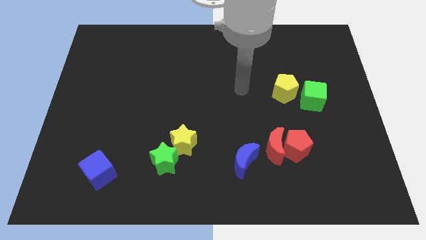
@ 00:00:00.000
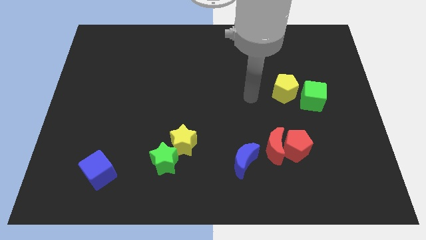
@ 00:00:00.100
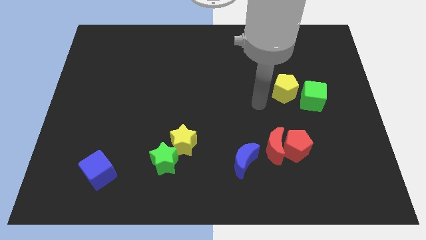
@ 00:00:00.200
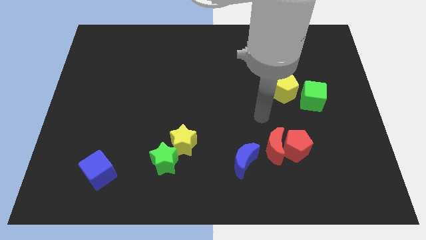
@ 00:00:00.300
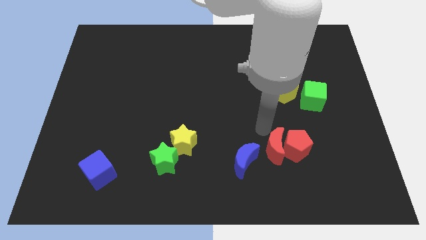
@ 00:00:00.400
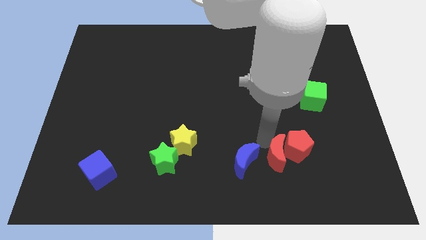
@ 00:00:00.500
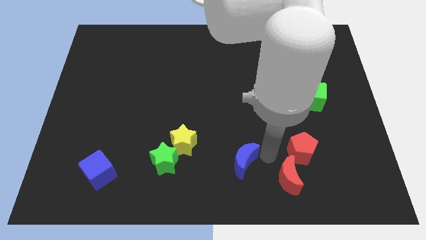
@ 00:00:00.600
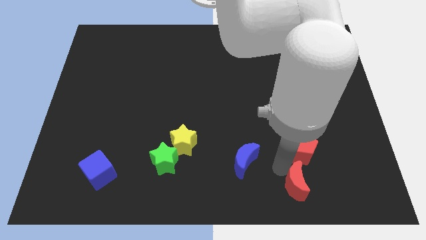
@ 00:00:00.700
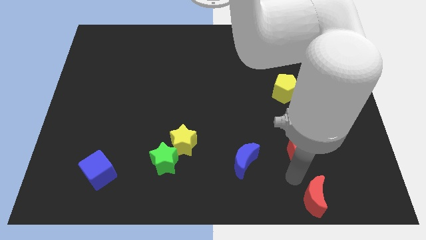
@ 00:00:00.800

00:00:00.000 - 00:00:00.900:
pull the red pentagon apart from the red moon

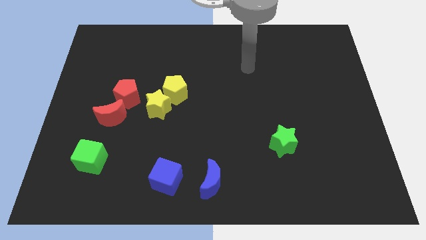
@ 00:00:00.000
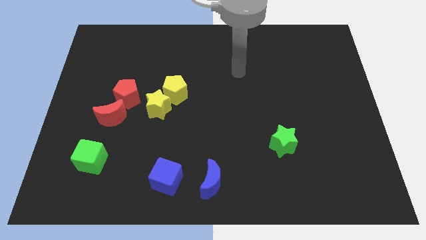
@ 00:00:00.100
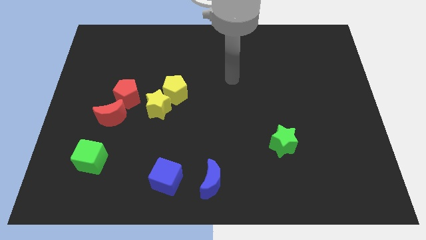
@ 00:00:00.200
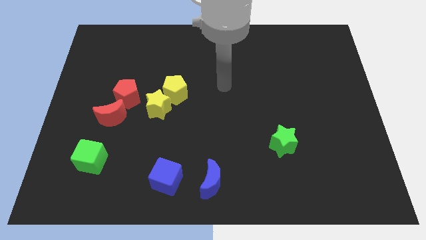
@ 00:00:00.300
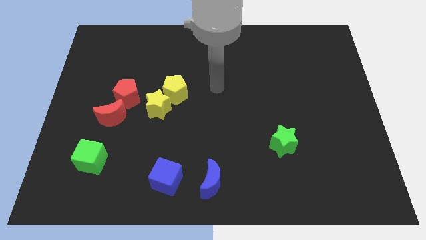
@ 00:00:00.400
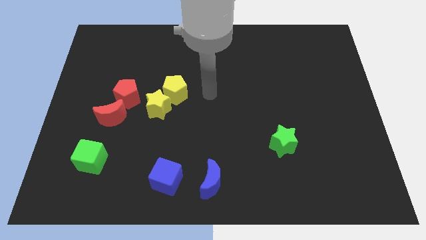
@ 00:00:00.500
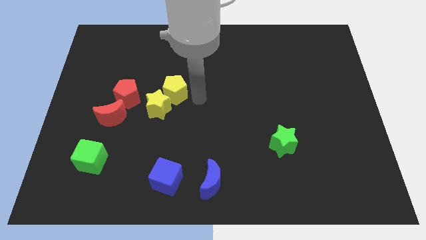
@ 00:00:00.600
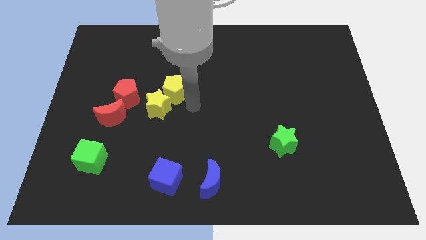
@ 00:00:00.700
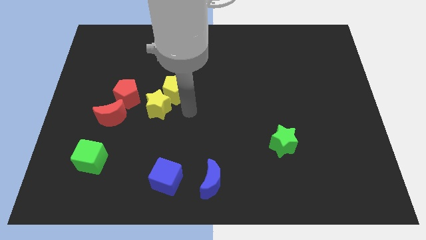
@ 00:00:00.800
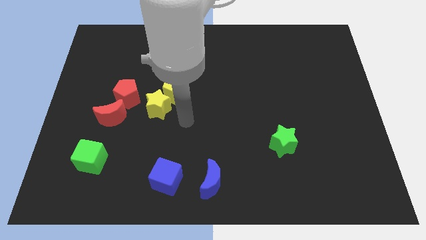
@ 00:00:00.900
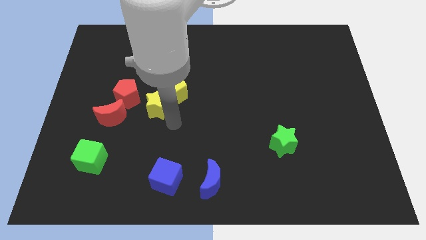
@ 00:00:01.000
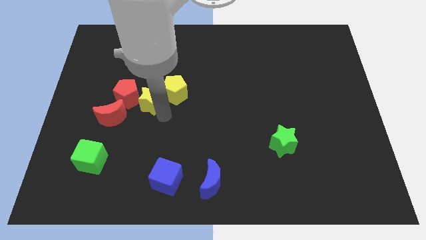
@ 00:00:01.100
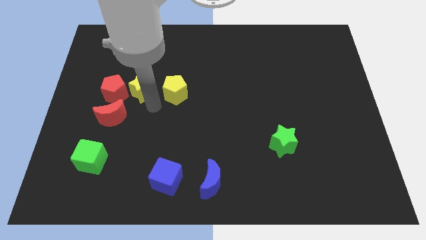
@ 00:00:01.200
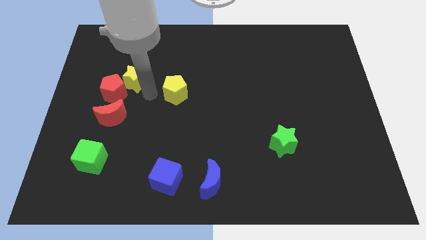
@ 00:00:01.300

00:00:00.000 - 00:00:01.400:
separate the yellow pentagon from the yellow star

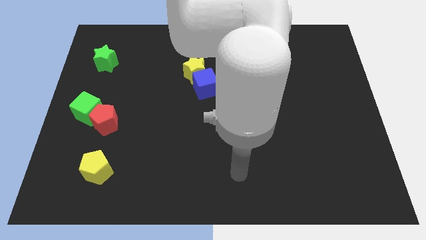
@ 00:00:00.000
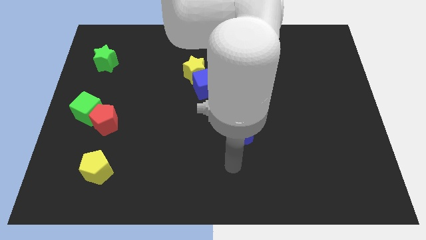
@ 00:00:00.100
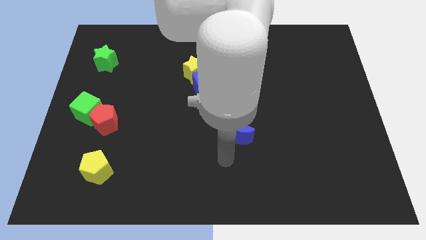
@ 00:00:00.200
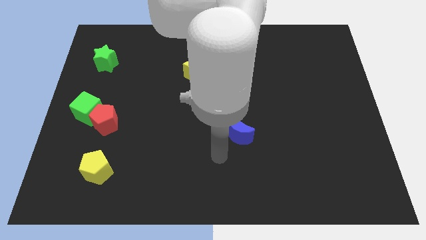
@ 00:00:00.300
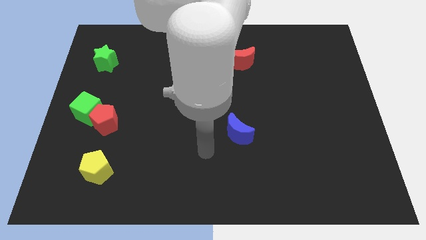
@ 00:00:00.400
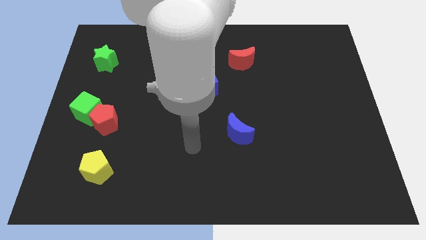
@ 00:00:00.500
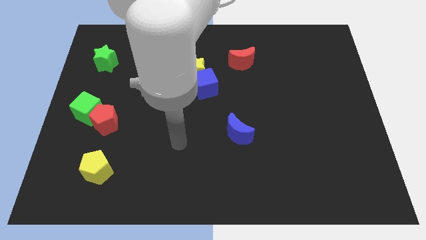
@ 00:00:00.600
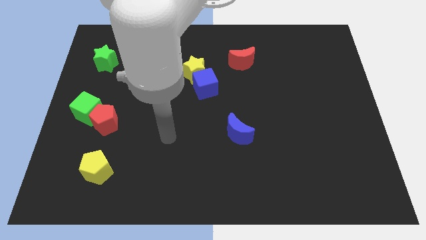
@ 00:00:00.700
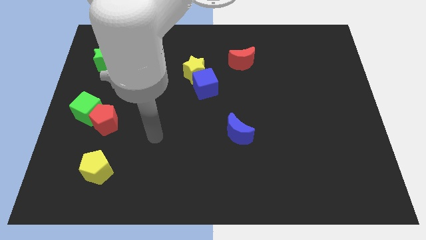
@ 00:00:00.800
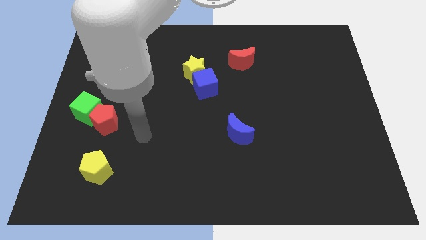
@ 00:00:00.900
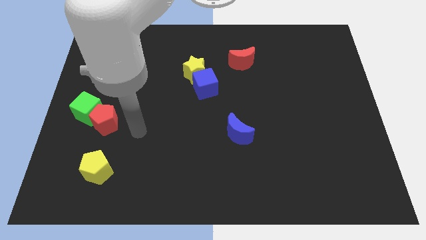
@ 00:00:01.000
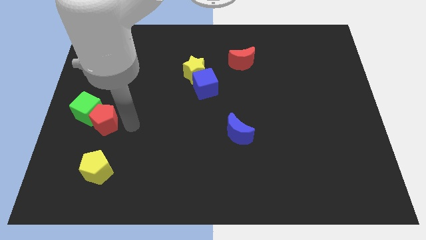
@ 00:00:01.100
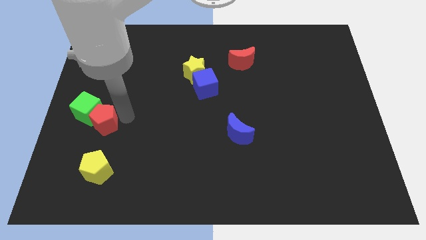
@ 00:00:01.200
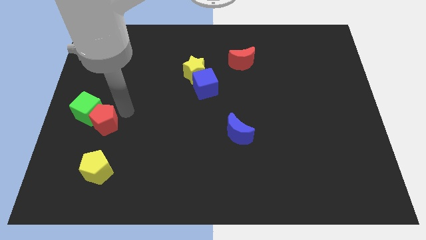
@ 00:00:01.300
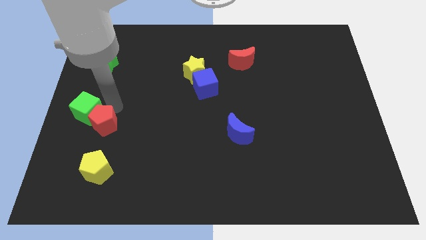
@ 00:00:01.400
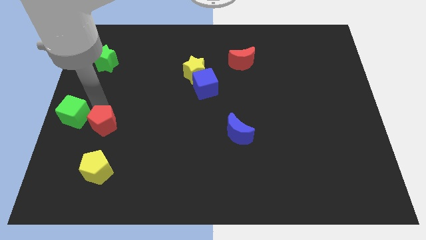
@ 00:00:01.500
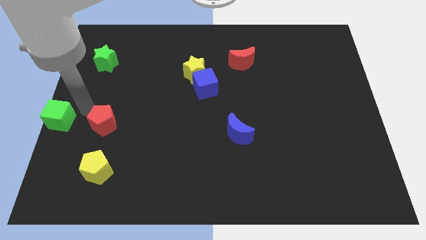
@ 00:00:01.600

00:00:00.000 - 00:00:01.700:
pull the red pentagon apart from the green cube

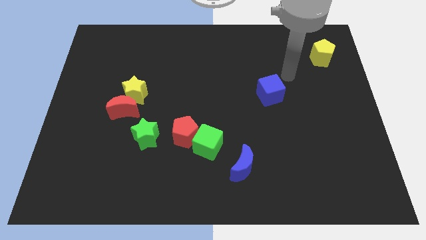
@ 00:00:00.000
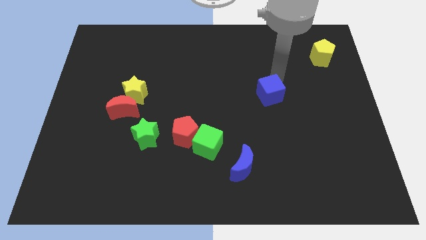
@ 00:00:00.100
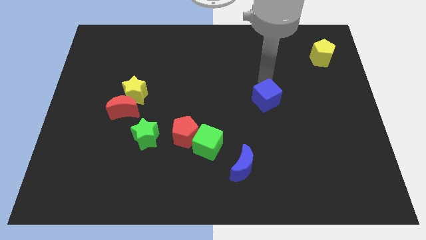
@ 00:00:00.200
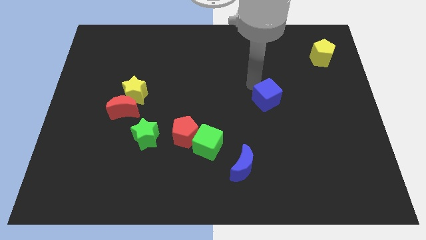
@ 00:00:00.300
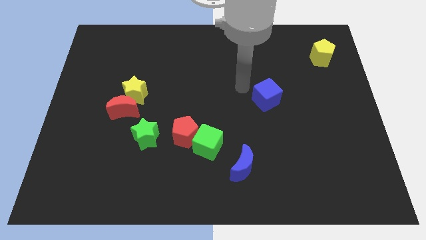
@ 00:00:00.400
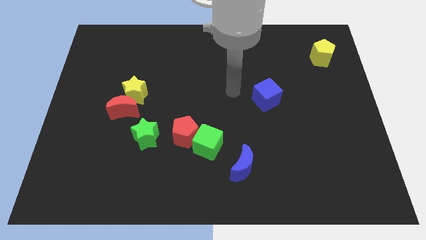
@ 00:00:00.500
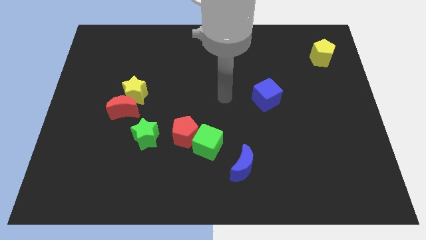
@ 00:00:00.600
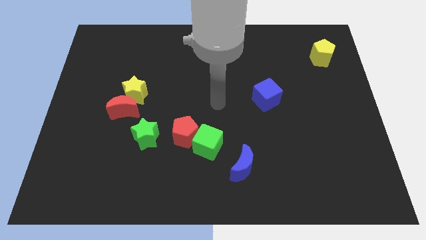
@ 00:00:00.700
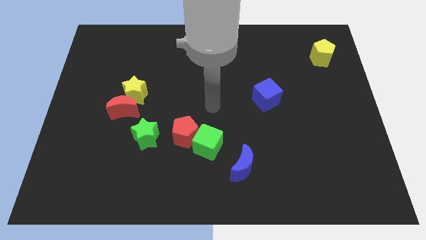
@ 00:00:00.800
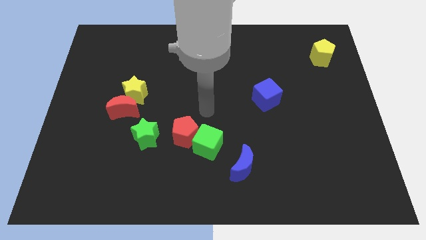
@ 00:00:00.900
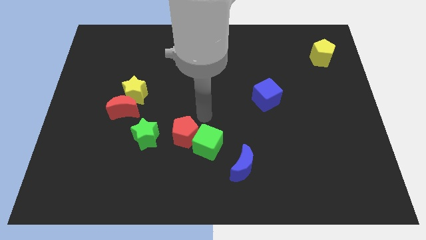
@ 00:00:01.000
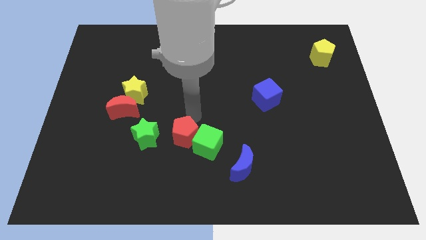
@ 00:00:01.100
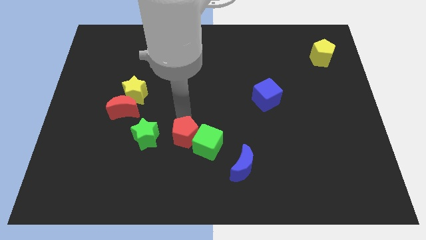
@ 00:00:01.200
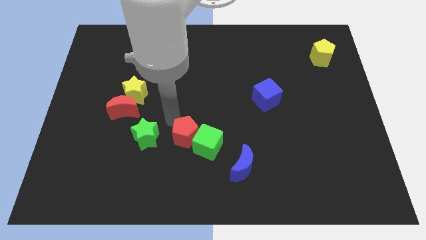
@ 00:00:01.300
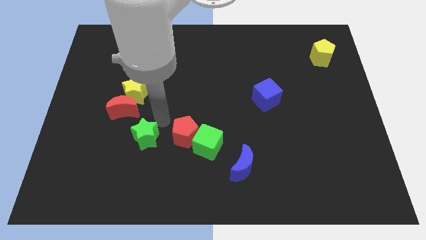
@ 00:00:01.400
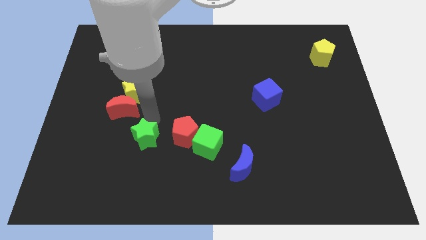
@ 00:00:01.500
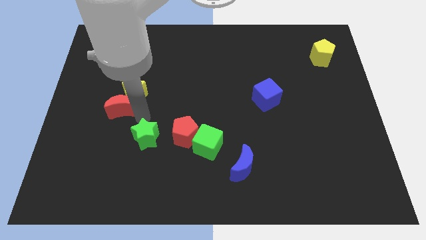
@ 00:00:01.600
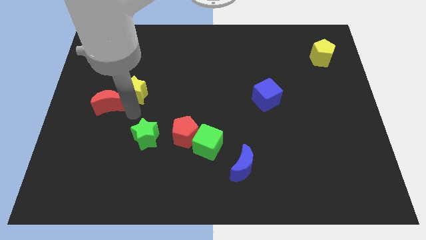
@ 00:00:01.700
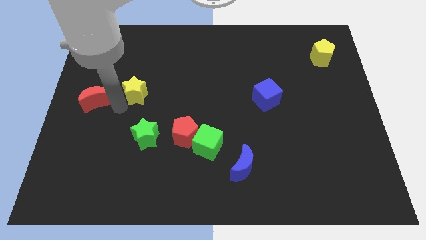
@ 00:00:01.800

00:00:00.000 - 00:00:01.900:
separate the yellow star from the red moon

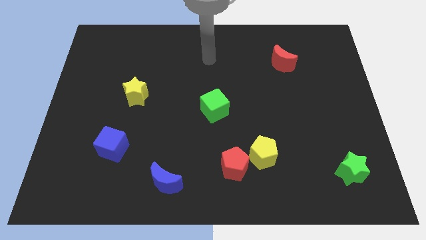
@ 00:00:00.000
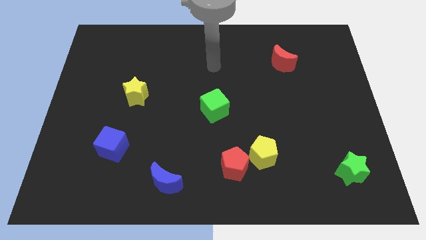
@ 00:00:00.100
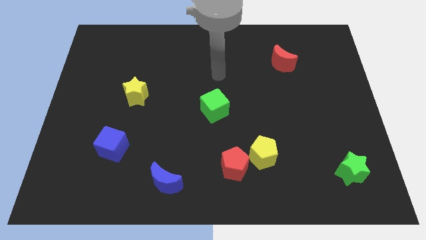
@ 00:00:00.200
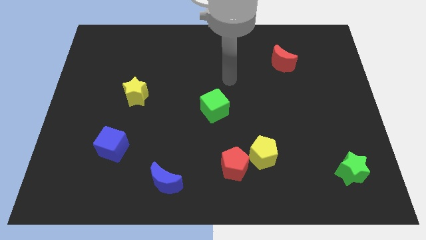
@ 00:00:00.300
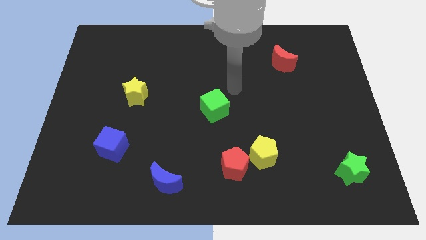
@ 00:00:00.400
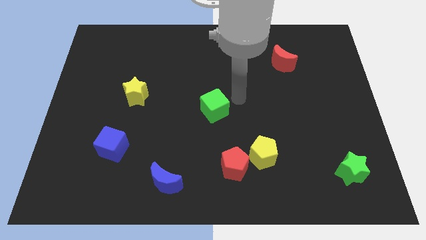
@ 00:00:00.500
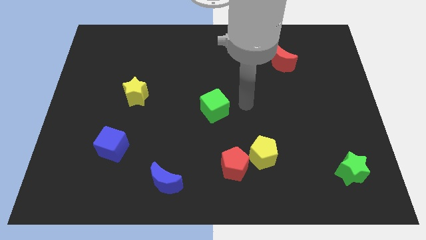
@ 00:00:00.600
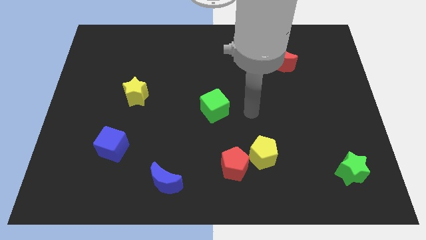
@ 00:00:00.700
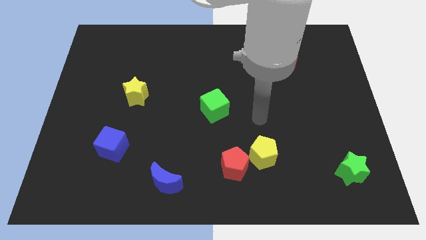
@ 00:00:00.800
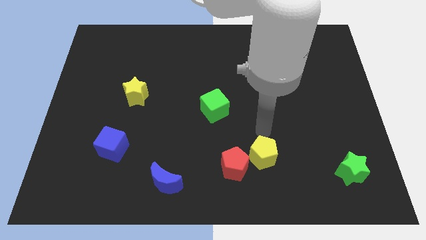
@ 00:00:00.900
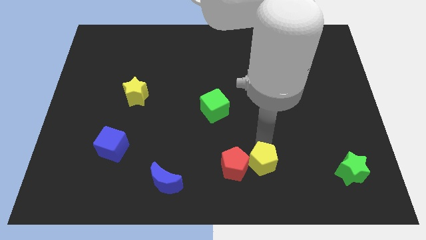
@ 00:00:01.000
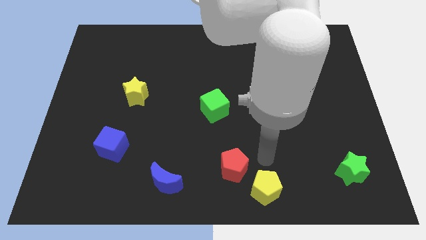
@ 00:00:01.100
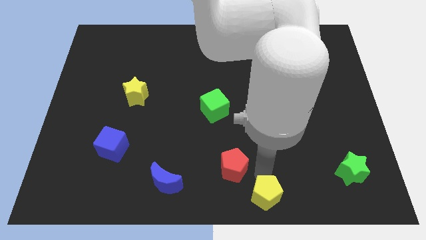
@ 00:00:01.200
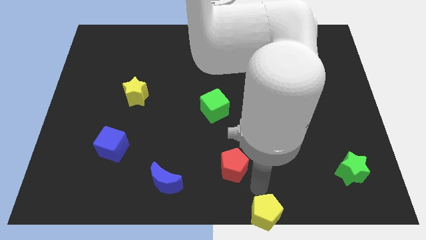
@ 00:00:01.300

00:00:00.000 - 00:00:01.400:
separate the red pentagon from the yellow pentagon

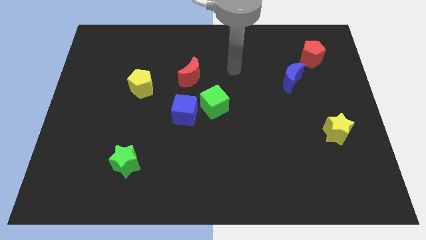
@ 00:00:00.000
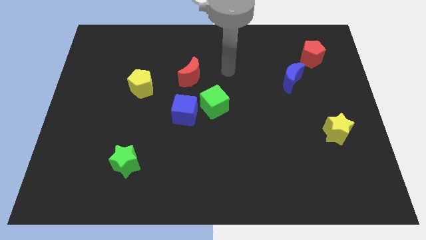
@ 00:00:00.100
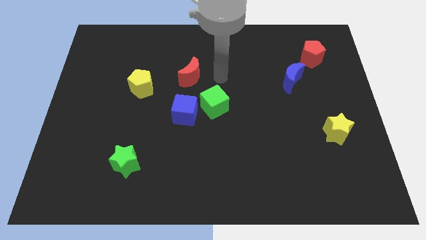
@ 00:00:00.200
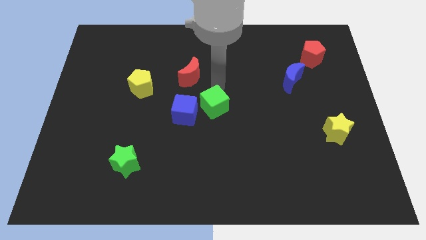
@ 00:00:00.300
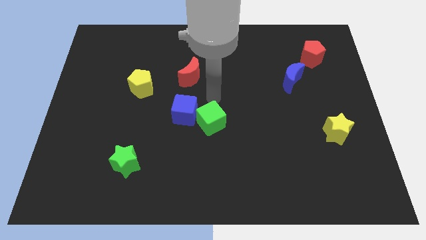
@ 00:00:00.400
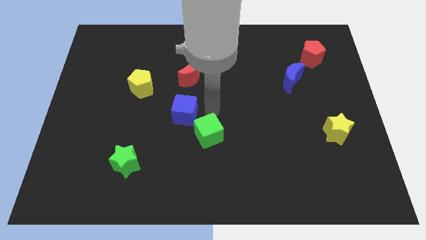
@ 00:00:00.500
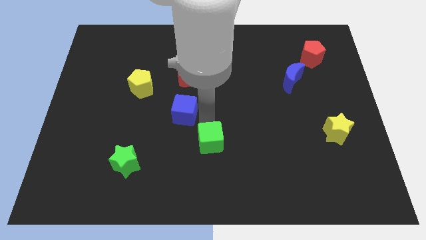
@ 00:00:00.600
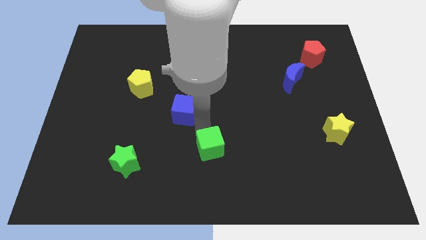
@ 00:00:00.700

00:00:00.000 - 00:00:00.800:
separate the blue cube from the green cube

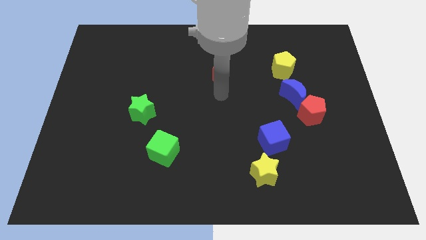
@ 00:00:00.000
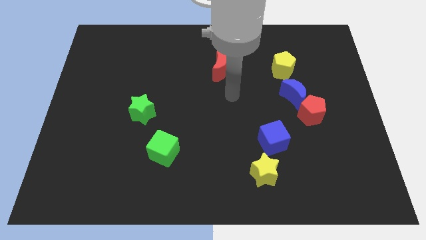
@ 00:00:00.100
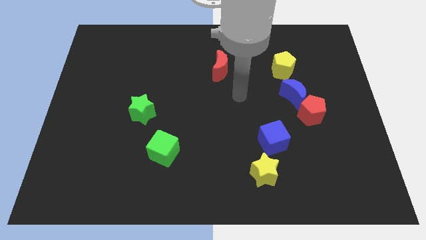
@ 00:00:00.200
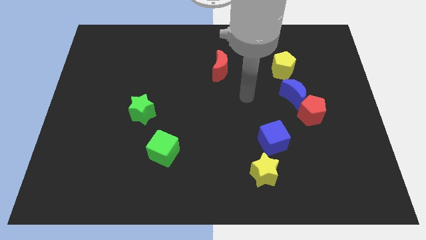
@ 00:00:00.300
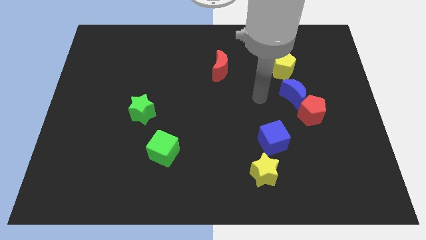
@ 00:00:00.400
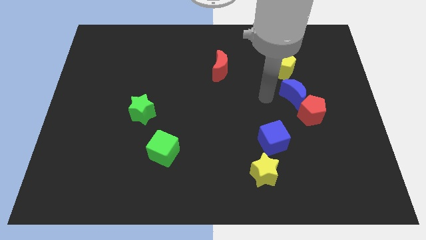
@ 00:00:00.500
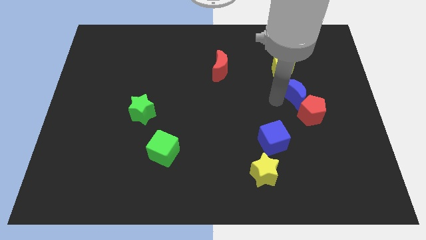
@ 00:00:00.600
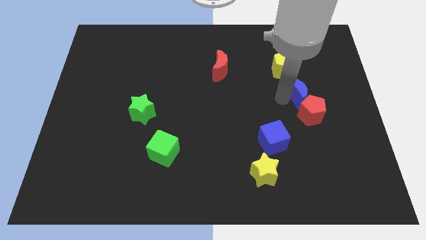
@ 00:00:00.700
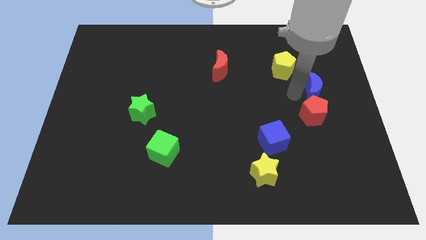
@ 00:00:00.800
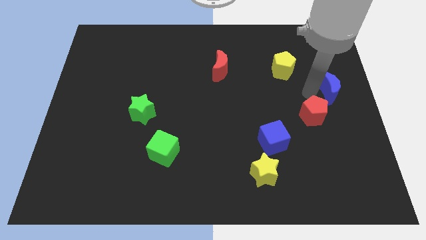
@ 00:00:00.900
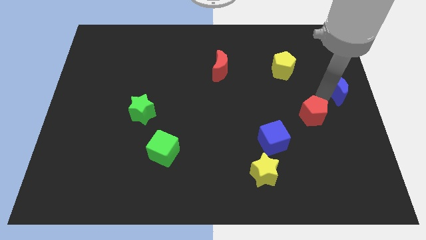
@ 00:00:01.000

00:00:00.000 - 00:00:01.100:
move the red pentagon away from the blue moon
